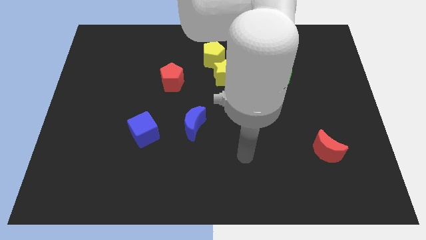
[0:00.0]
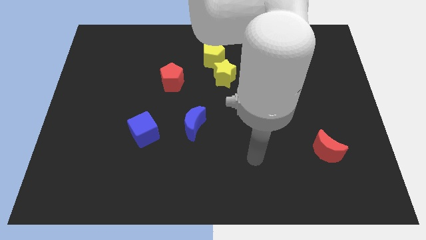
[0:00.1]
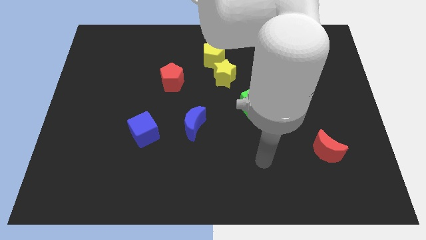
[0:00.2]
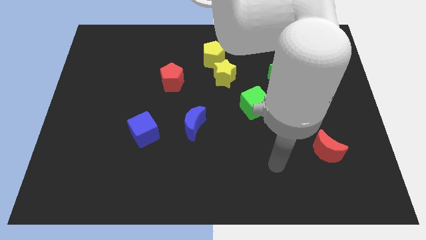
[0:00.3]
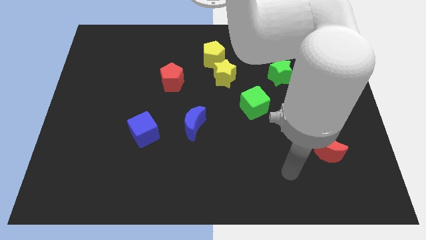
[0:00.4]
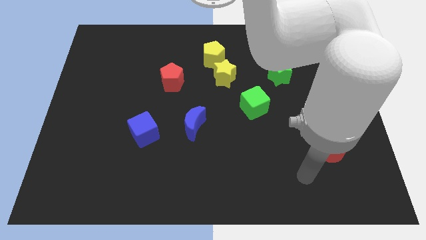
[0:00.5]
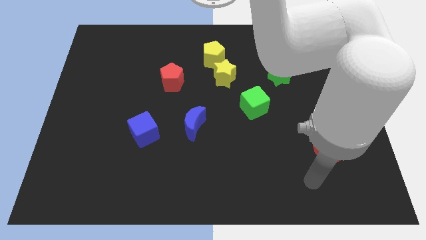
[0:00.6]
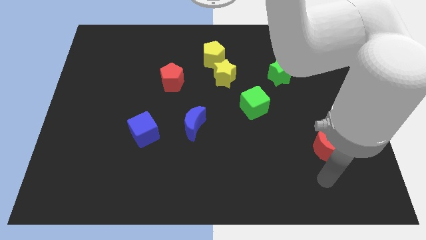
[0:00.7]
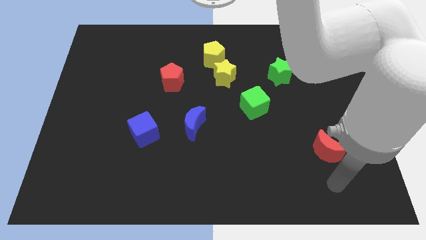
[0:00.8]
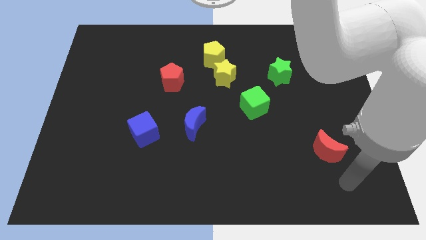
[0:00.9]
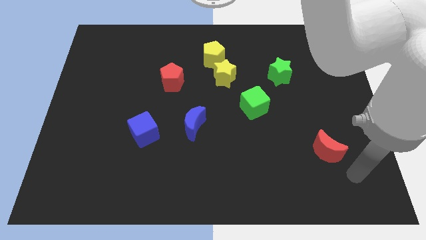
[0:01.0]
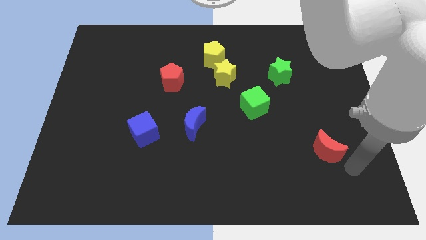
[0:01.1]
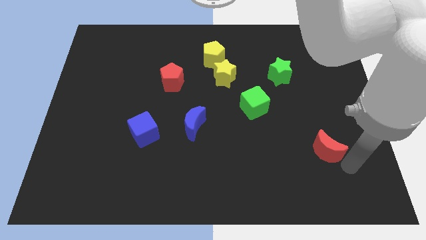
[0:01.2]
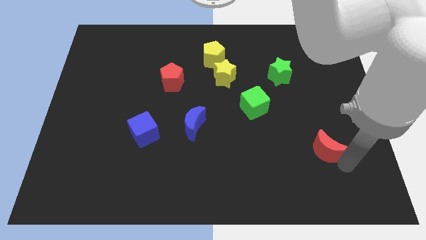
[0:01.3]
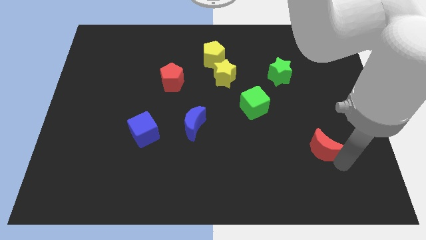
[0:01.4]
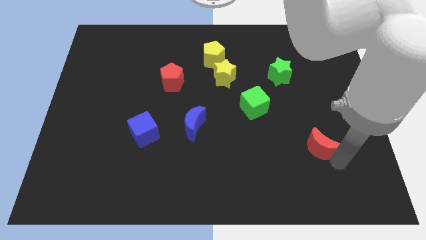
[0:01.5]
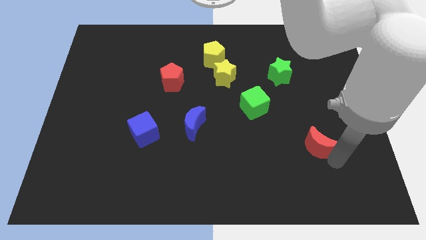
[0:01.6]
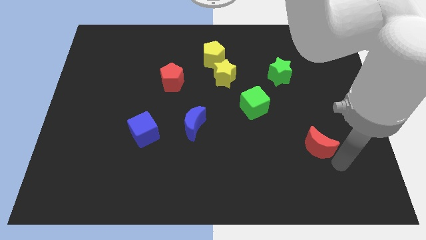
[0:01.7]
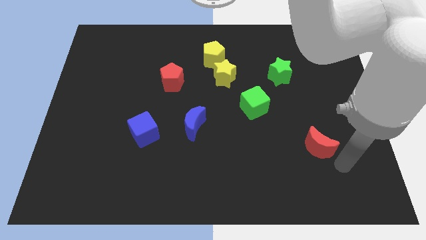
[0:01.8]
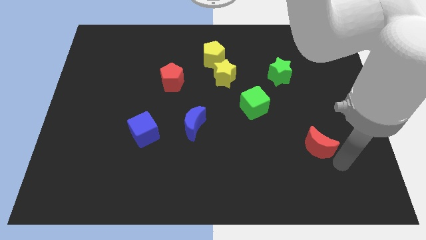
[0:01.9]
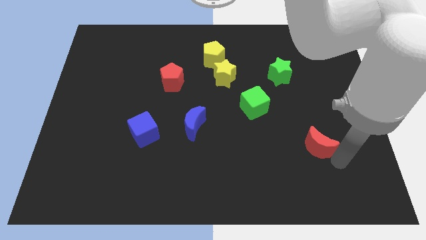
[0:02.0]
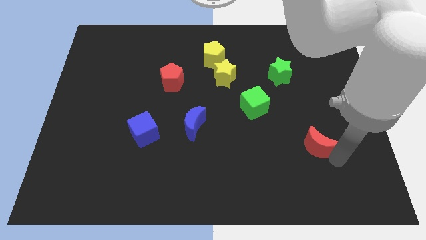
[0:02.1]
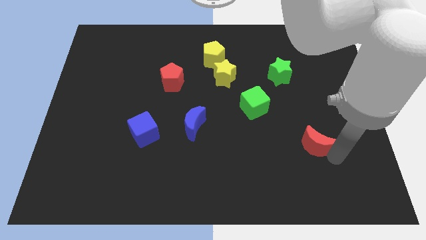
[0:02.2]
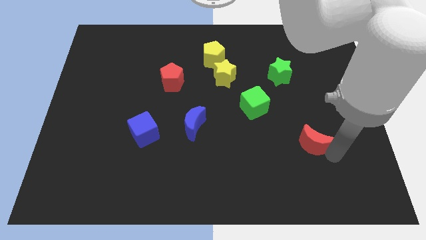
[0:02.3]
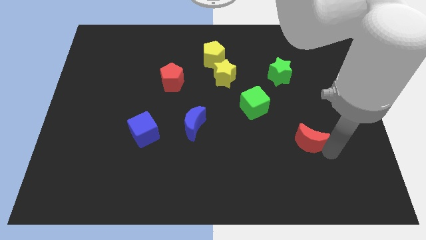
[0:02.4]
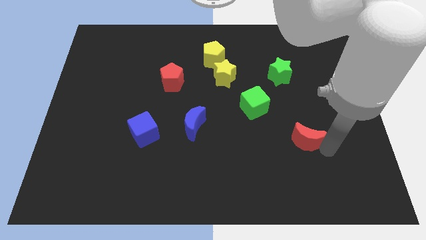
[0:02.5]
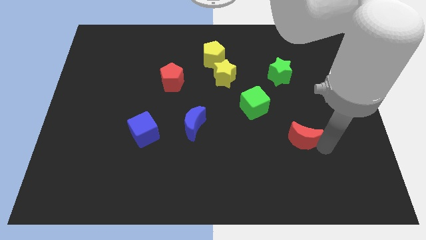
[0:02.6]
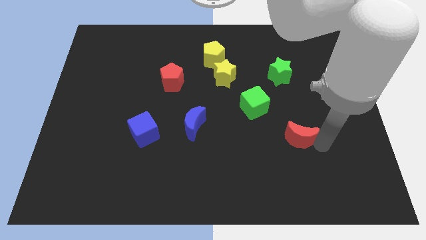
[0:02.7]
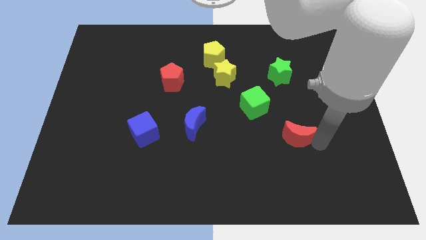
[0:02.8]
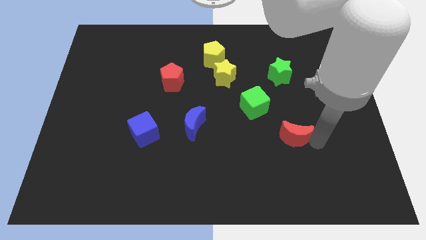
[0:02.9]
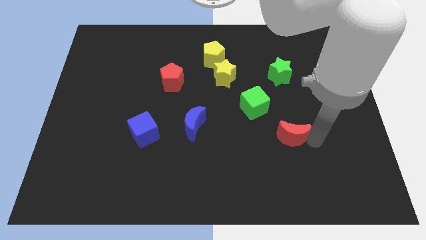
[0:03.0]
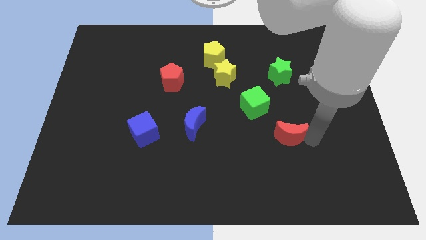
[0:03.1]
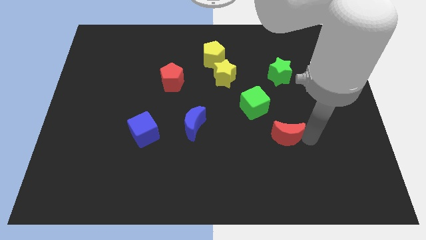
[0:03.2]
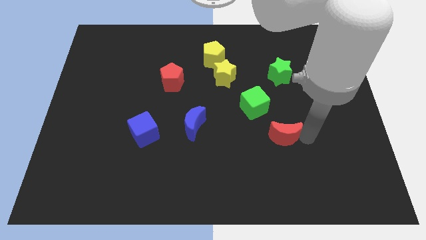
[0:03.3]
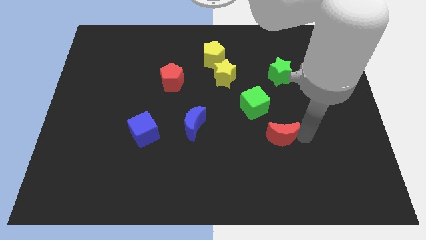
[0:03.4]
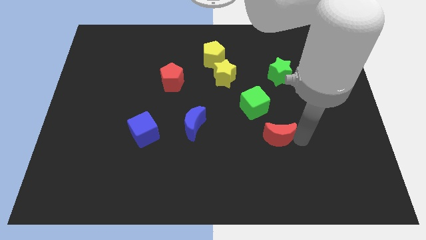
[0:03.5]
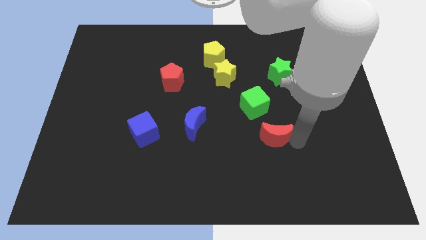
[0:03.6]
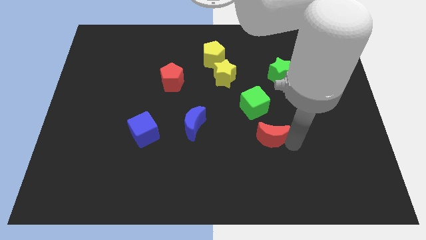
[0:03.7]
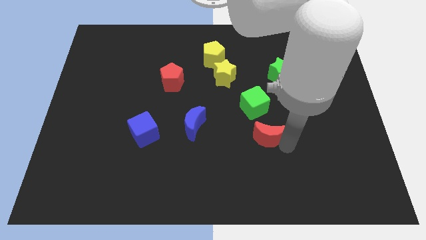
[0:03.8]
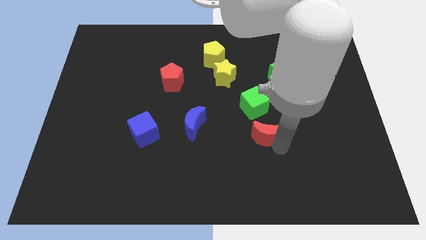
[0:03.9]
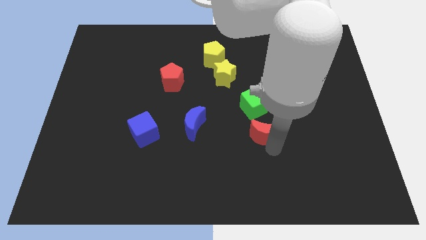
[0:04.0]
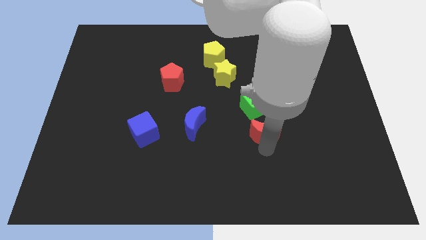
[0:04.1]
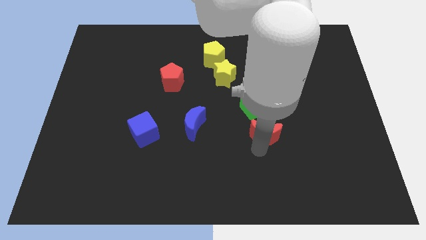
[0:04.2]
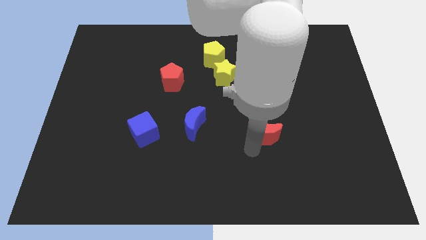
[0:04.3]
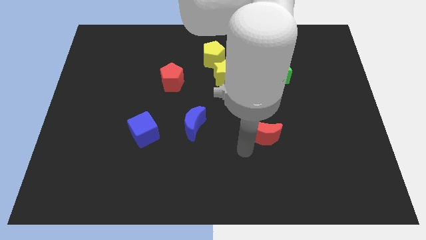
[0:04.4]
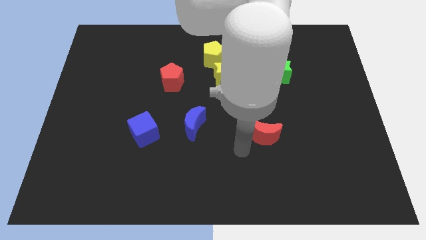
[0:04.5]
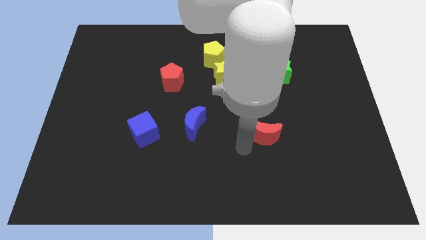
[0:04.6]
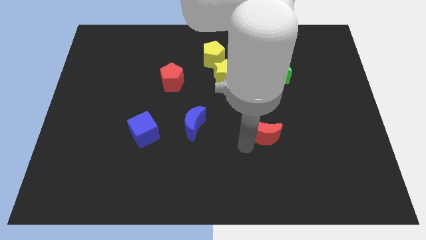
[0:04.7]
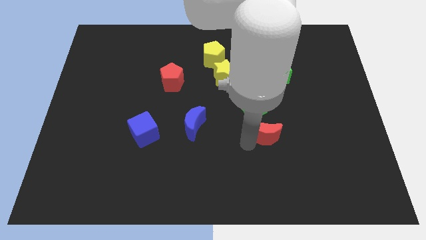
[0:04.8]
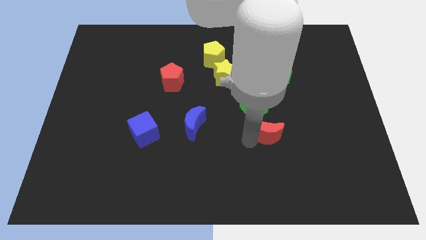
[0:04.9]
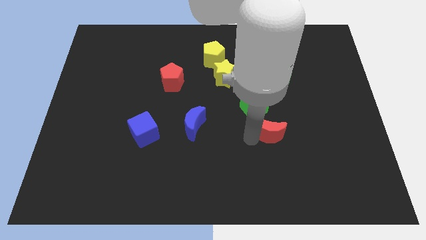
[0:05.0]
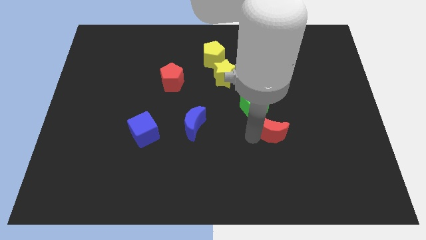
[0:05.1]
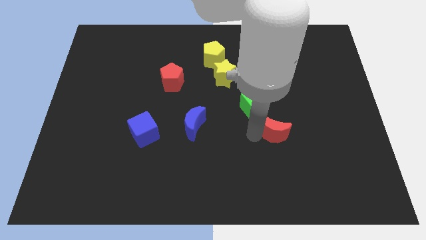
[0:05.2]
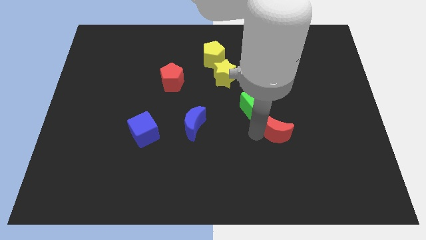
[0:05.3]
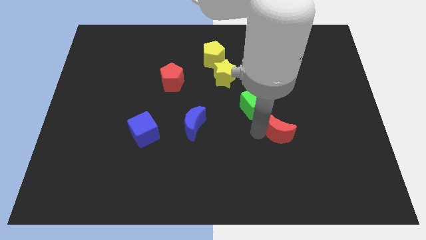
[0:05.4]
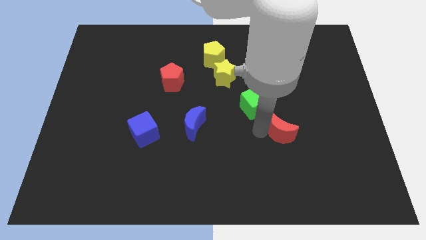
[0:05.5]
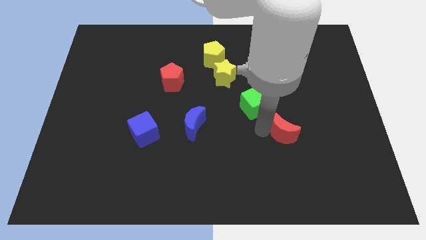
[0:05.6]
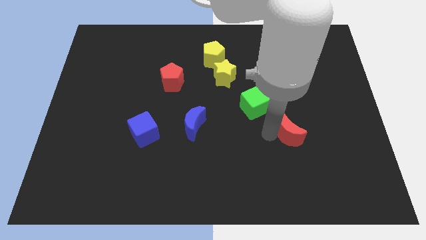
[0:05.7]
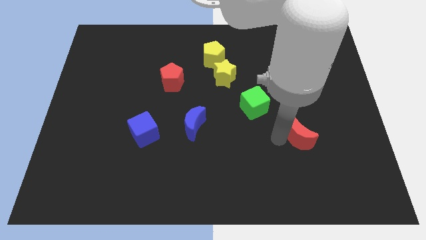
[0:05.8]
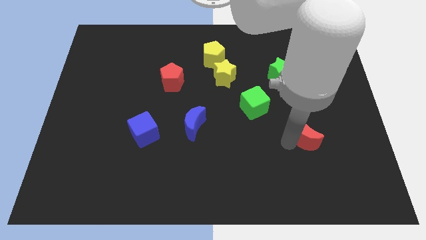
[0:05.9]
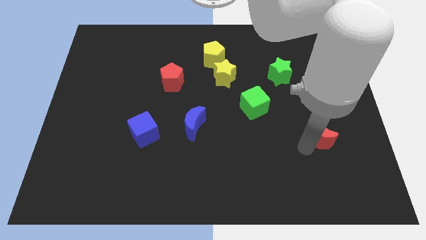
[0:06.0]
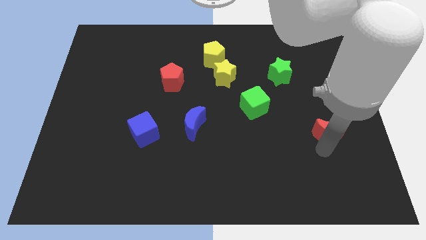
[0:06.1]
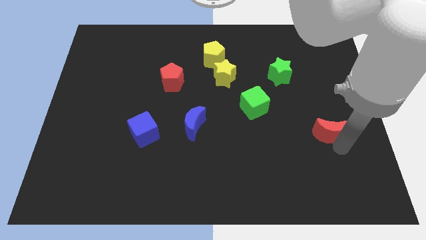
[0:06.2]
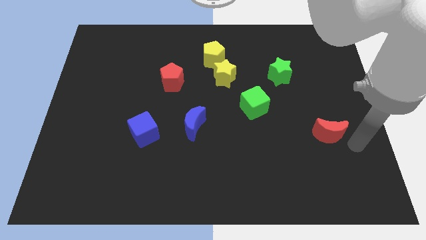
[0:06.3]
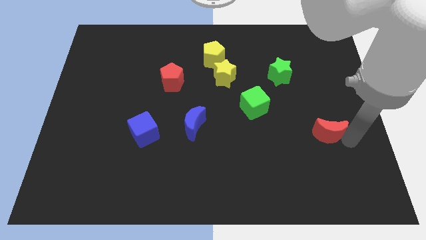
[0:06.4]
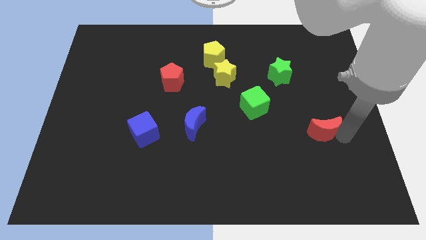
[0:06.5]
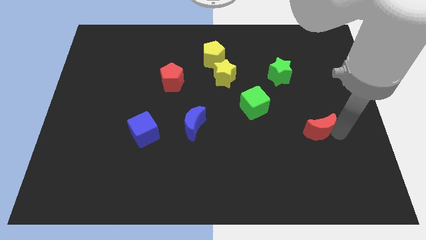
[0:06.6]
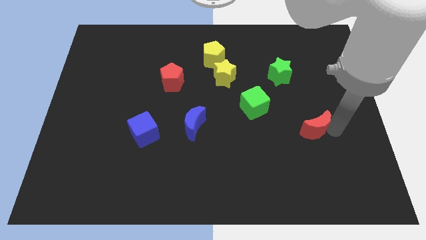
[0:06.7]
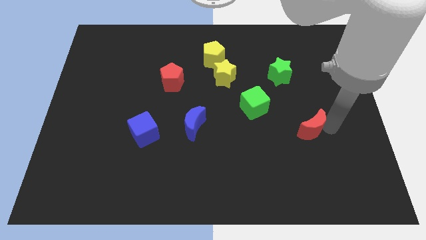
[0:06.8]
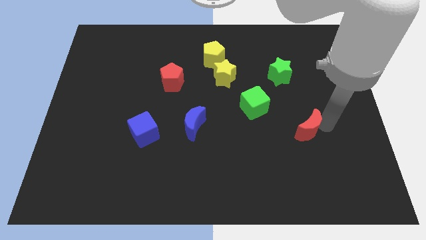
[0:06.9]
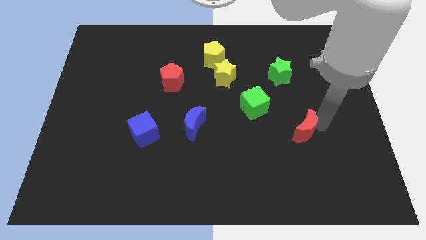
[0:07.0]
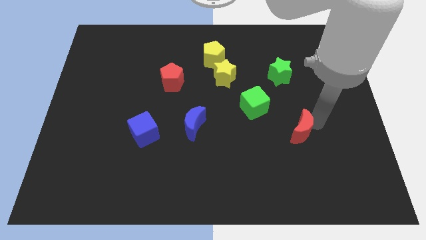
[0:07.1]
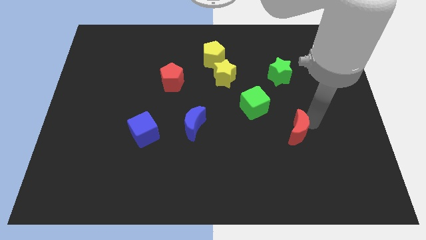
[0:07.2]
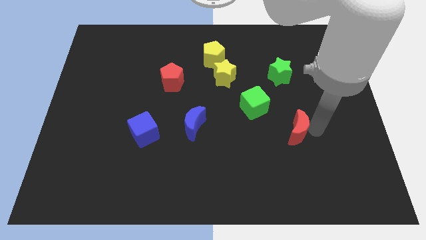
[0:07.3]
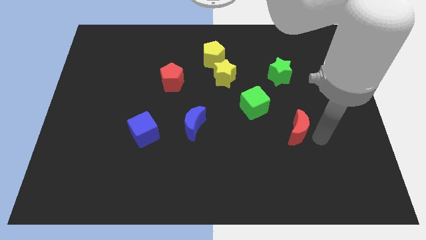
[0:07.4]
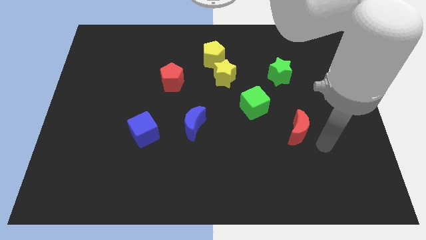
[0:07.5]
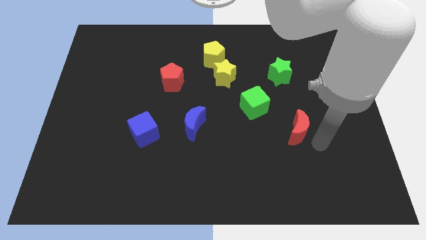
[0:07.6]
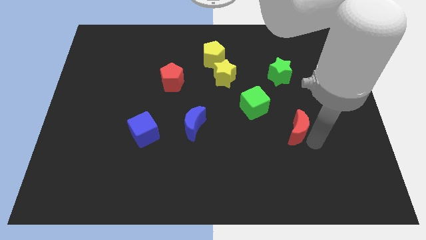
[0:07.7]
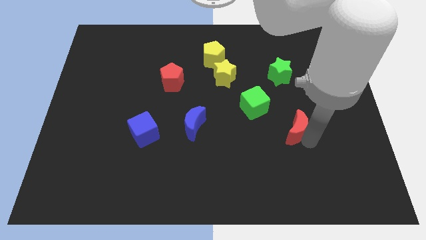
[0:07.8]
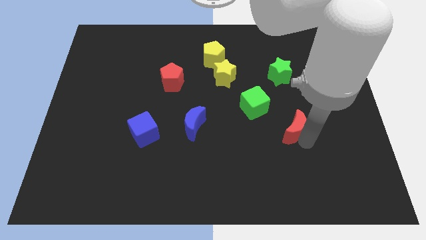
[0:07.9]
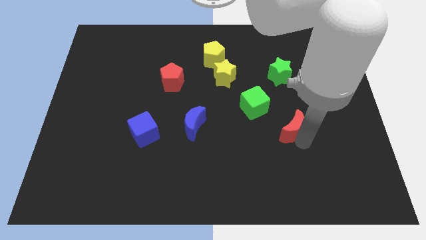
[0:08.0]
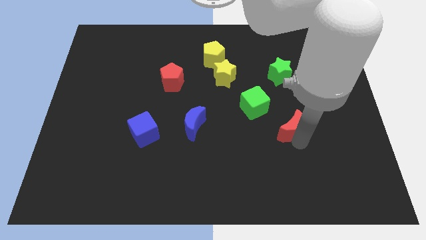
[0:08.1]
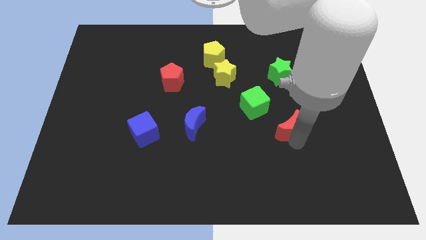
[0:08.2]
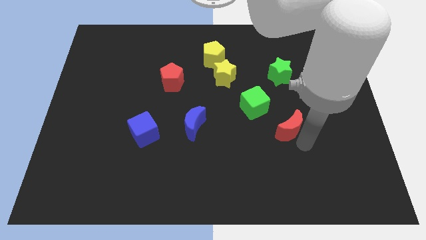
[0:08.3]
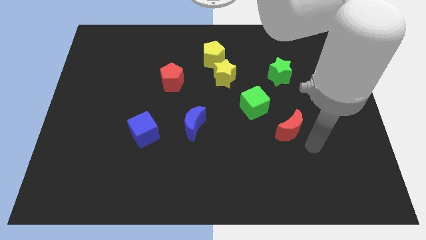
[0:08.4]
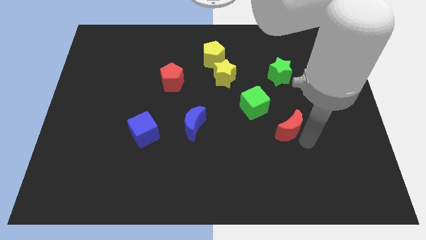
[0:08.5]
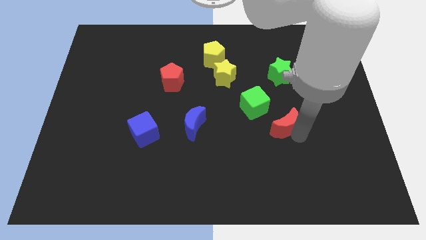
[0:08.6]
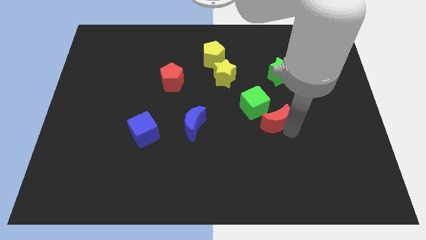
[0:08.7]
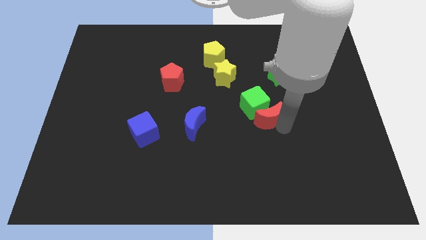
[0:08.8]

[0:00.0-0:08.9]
slide the red moon close to the green cube
